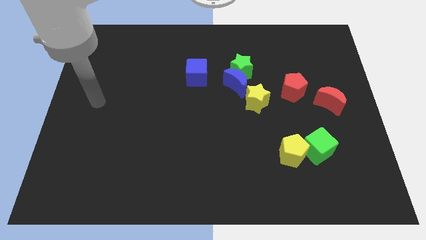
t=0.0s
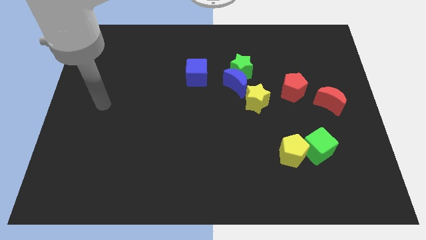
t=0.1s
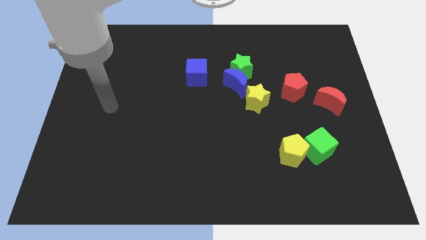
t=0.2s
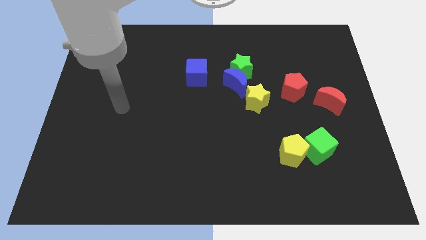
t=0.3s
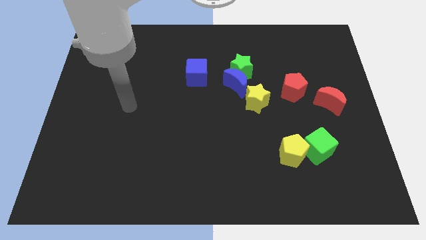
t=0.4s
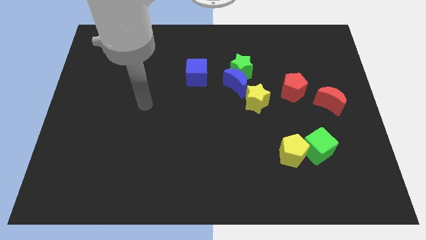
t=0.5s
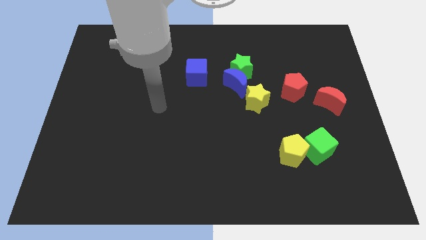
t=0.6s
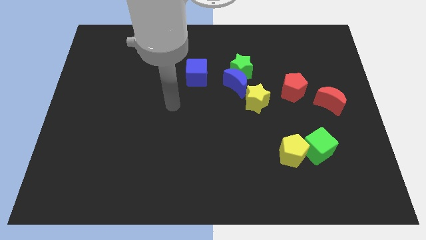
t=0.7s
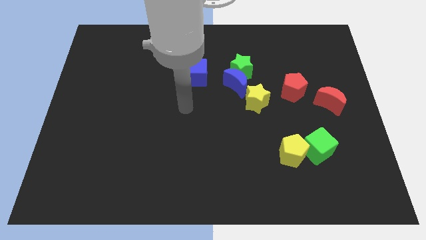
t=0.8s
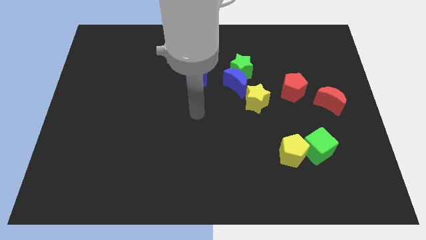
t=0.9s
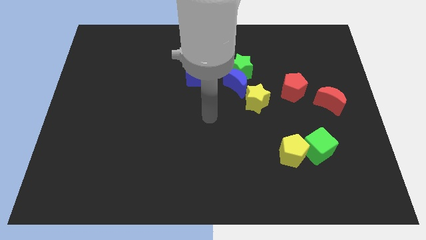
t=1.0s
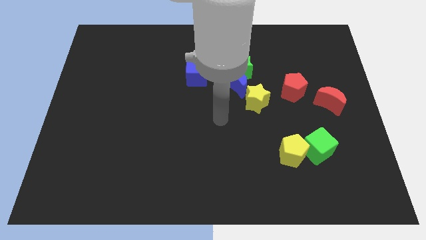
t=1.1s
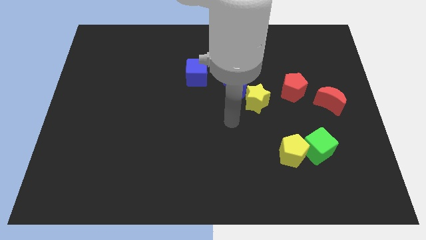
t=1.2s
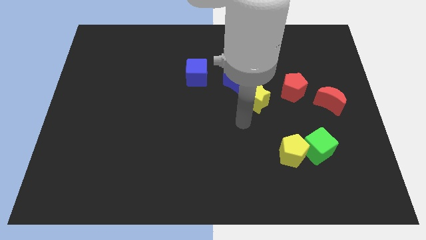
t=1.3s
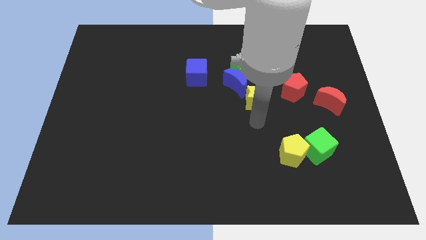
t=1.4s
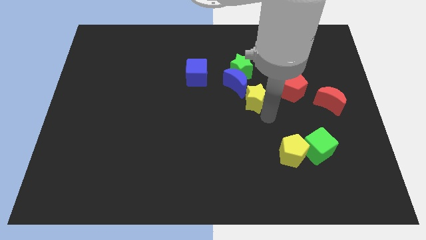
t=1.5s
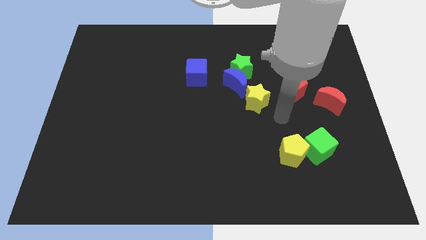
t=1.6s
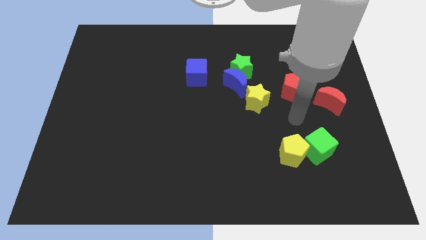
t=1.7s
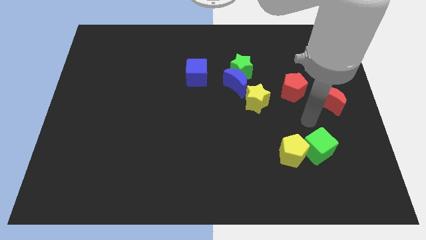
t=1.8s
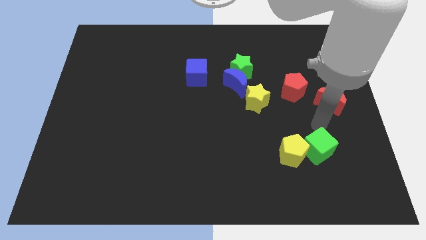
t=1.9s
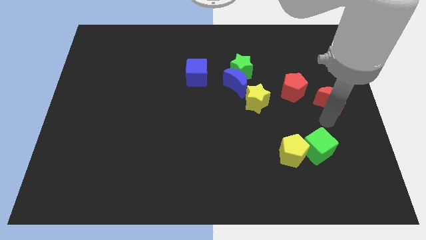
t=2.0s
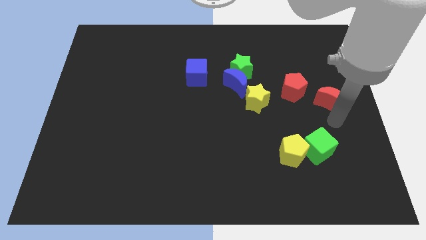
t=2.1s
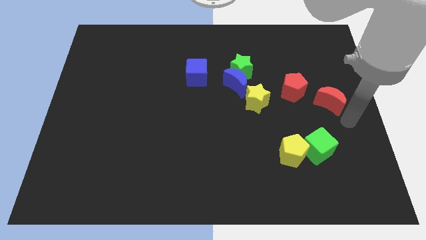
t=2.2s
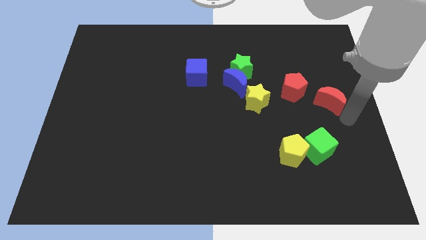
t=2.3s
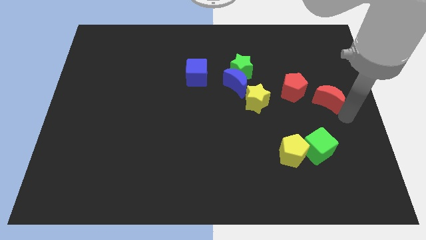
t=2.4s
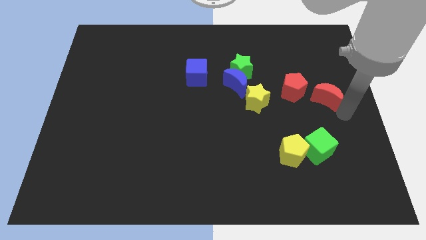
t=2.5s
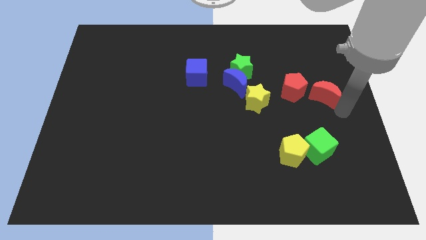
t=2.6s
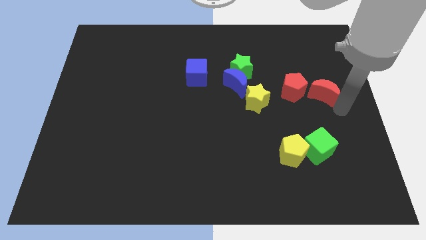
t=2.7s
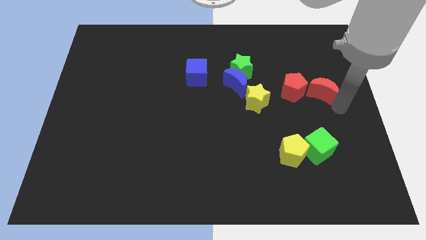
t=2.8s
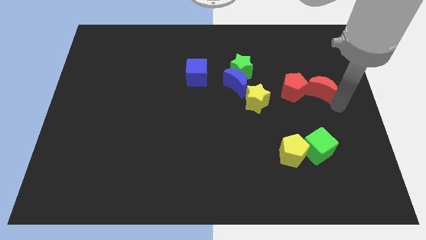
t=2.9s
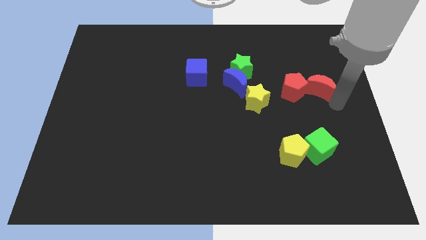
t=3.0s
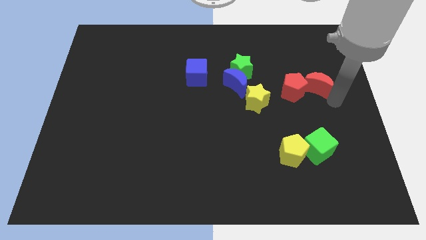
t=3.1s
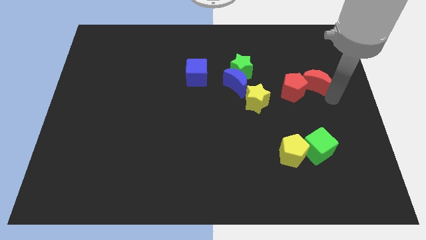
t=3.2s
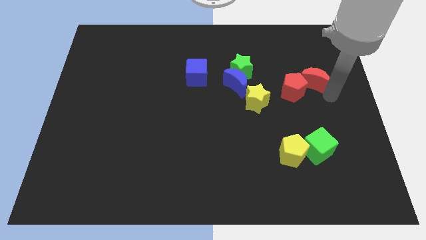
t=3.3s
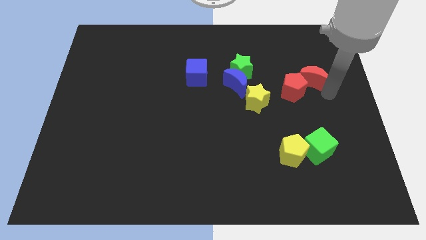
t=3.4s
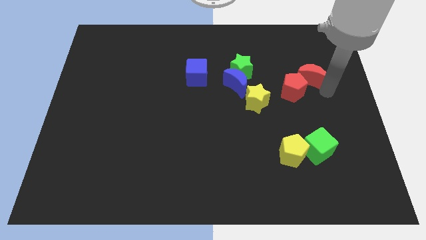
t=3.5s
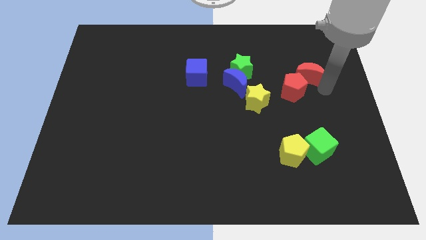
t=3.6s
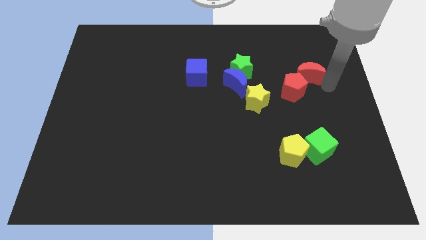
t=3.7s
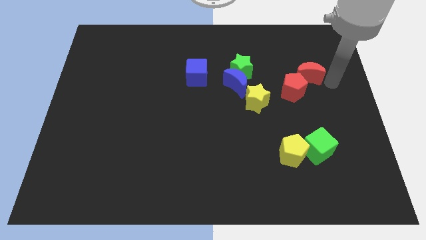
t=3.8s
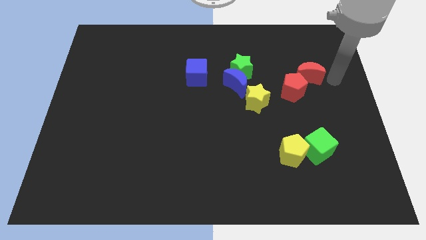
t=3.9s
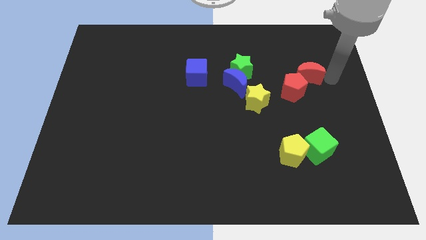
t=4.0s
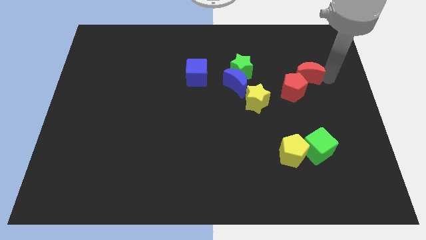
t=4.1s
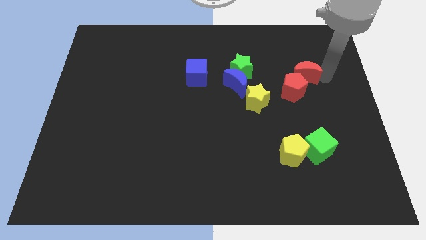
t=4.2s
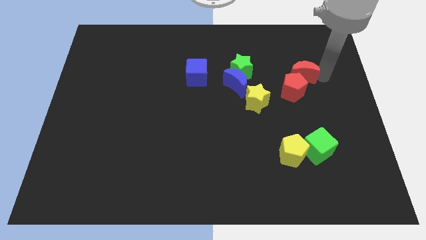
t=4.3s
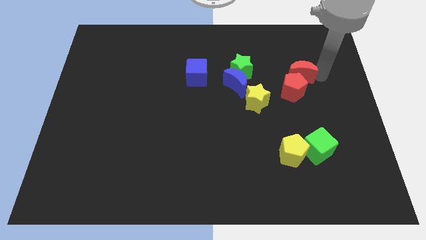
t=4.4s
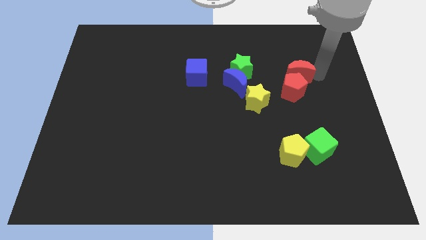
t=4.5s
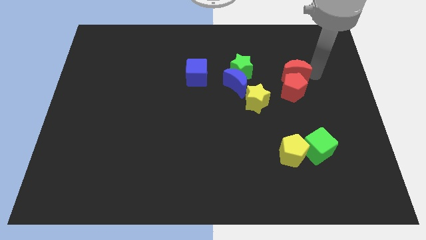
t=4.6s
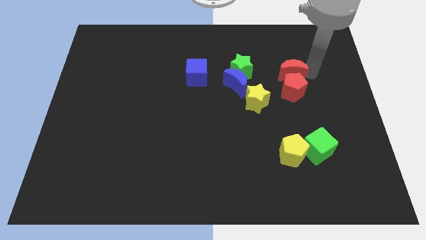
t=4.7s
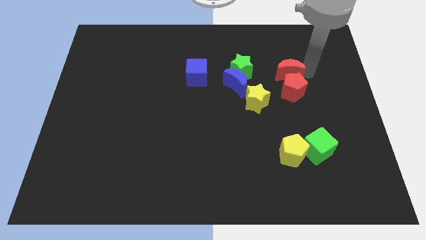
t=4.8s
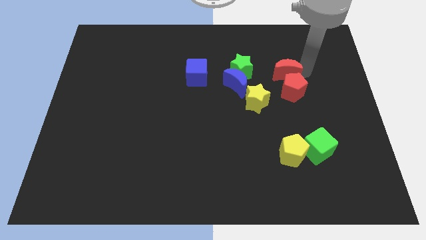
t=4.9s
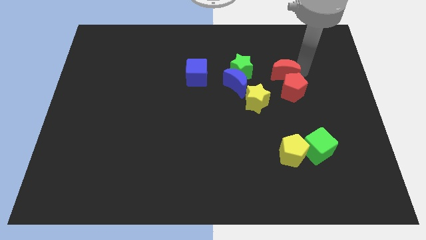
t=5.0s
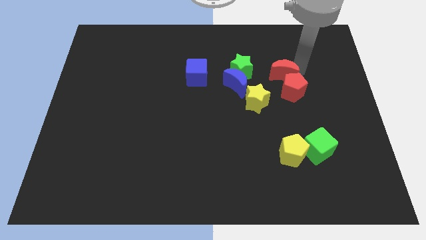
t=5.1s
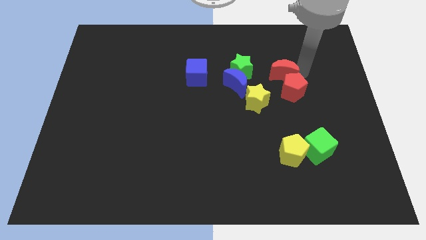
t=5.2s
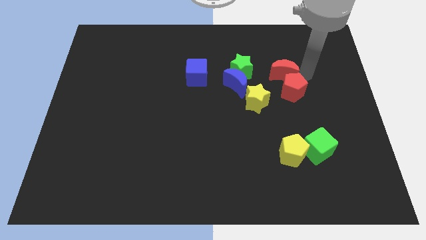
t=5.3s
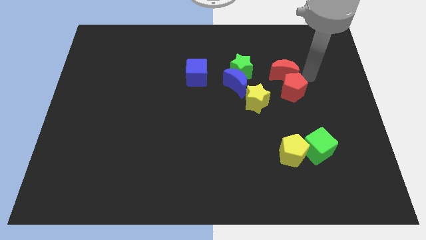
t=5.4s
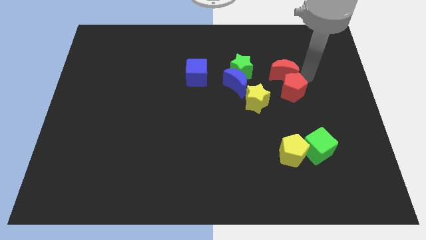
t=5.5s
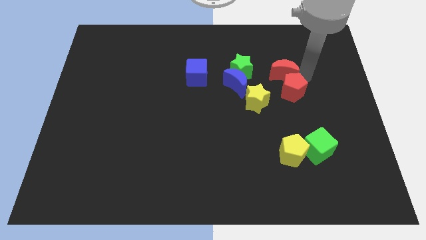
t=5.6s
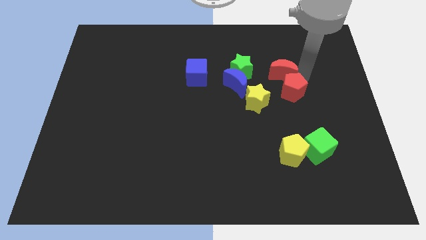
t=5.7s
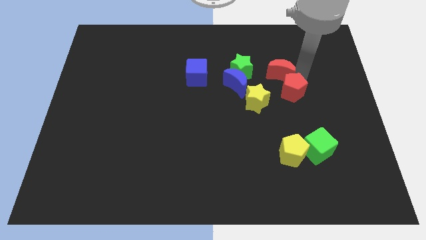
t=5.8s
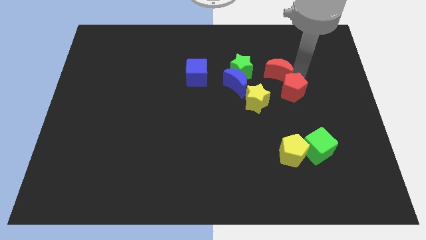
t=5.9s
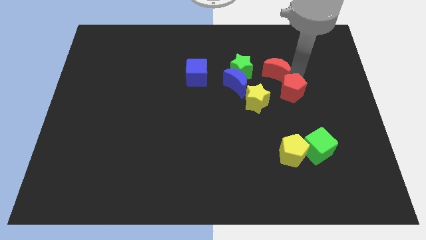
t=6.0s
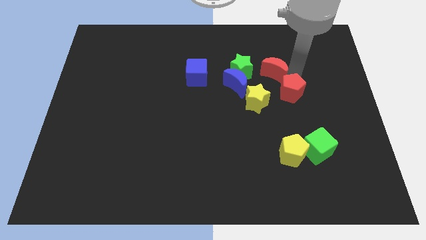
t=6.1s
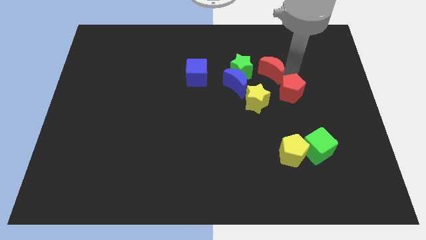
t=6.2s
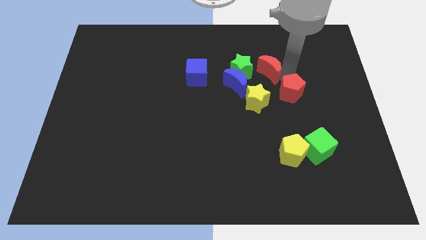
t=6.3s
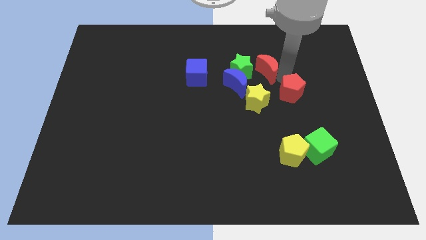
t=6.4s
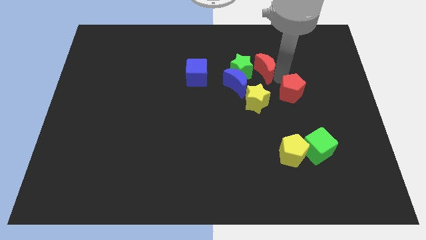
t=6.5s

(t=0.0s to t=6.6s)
push the red moon close to the green star

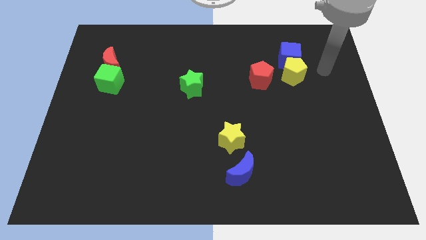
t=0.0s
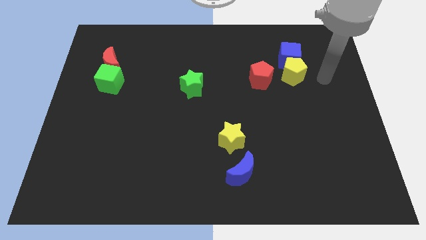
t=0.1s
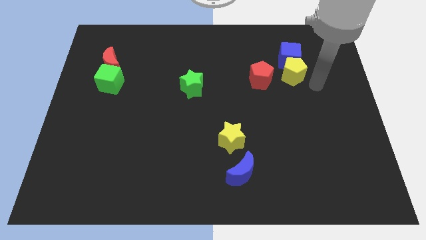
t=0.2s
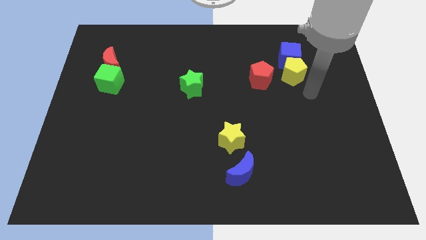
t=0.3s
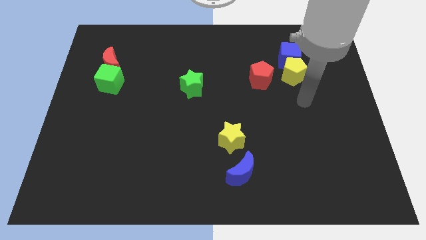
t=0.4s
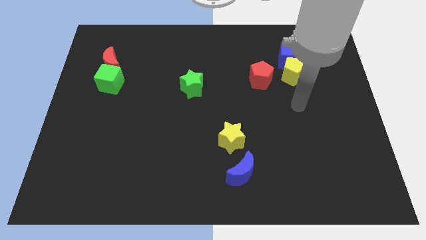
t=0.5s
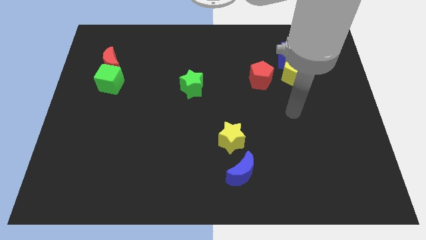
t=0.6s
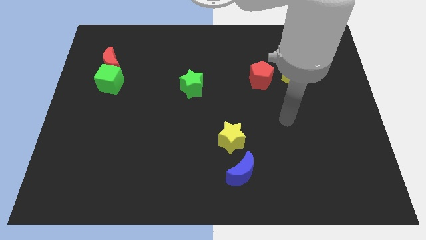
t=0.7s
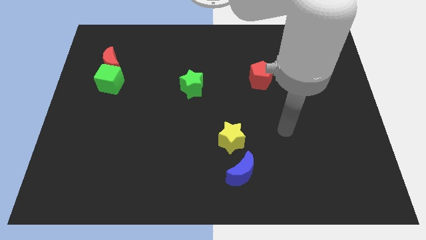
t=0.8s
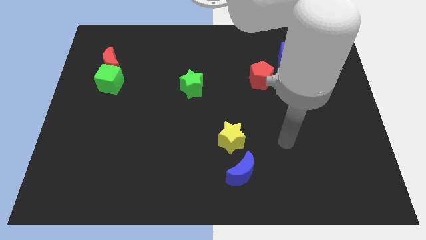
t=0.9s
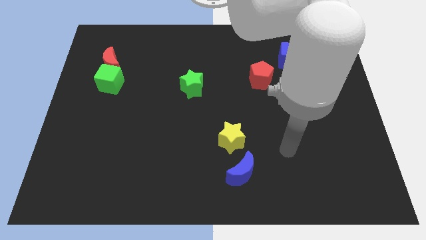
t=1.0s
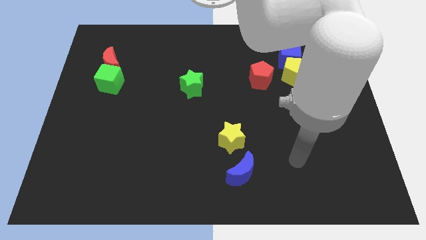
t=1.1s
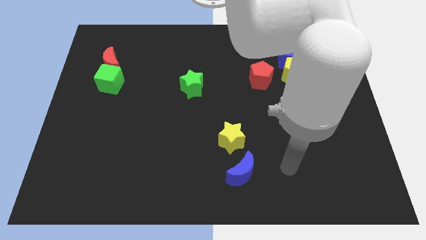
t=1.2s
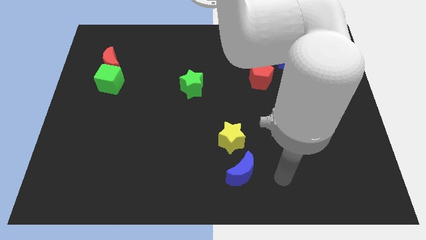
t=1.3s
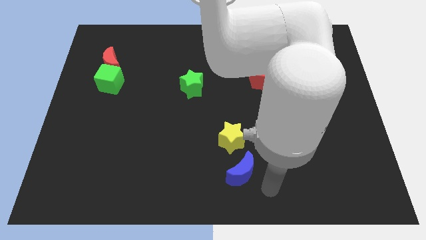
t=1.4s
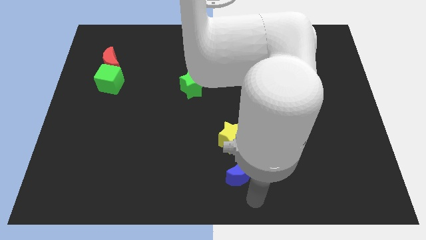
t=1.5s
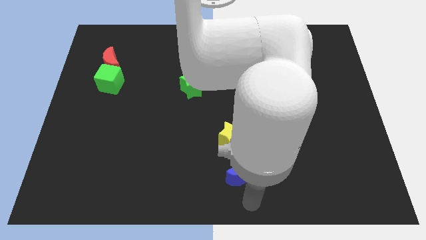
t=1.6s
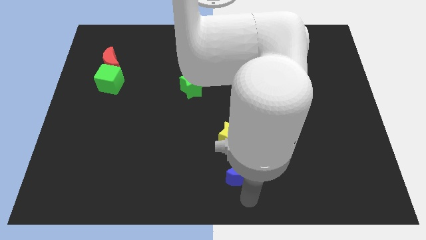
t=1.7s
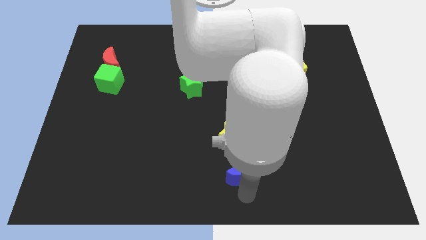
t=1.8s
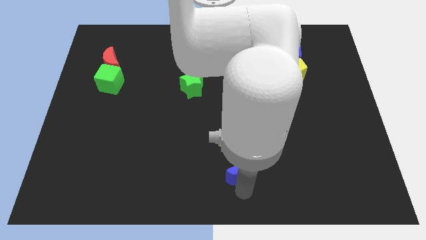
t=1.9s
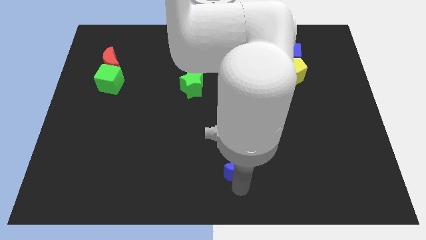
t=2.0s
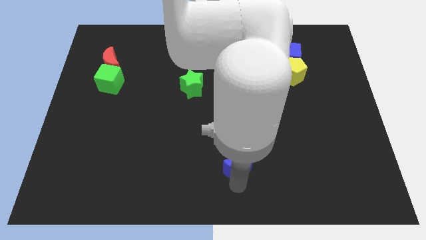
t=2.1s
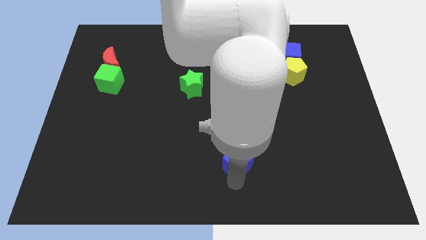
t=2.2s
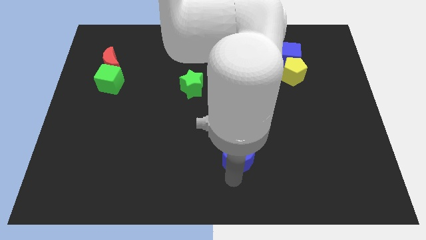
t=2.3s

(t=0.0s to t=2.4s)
slide the blue moon next to the yellow star
